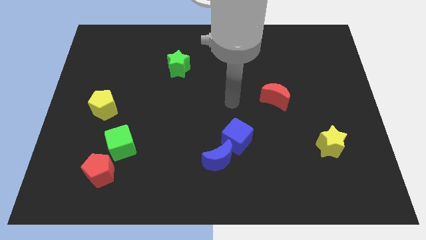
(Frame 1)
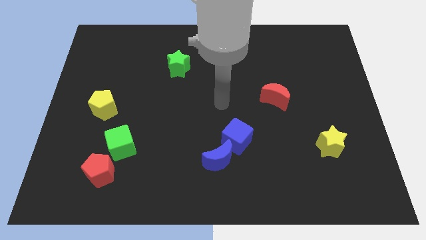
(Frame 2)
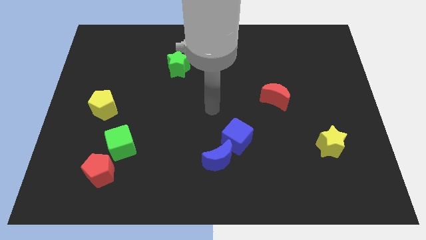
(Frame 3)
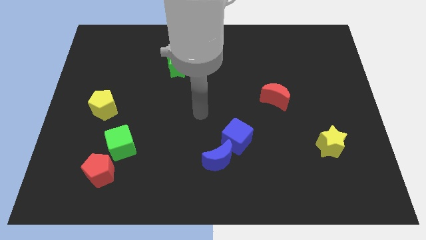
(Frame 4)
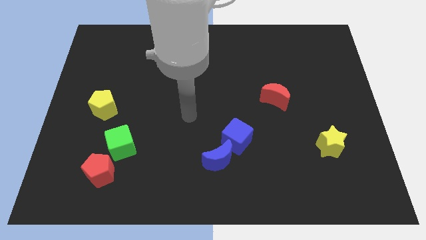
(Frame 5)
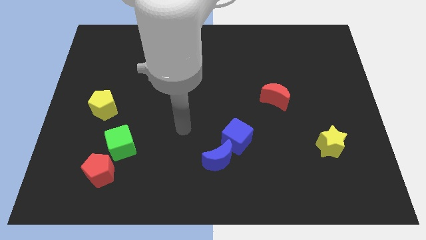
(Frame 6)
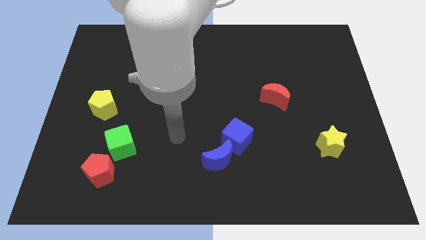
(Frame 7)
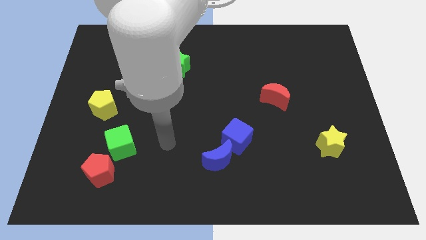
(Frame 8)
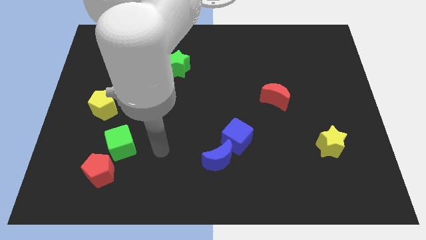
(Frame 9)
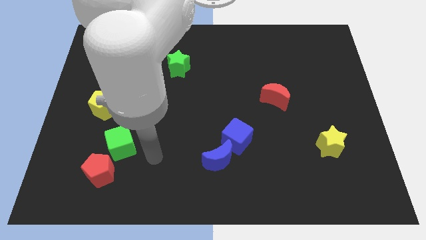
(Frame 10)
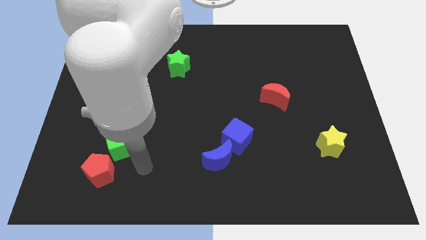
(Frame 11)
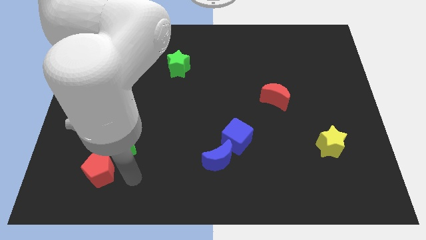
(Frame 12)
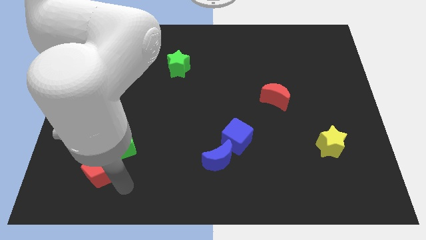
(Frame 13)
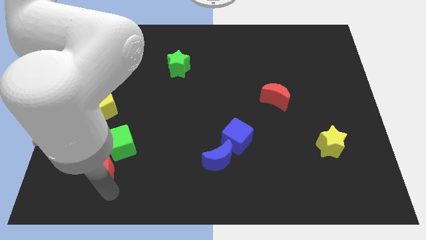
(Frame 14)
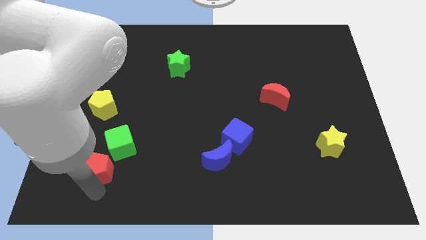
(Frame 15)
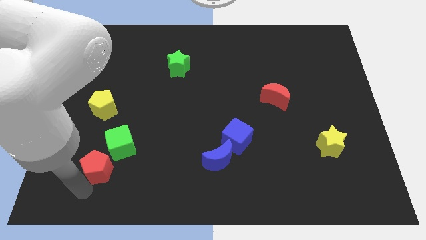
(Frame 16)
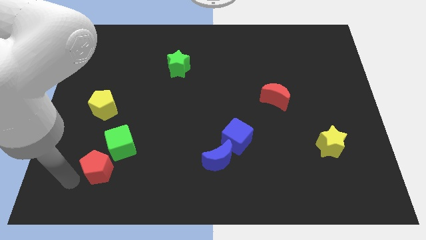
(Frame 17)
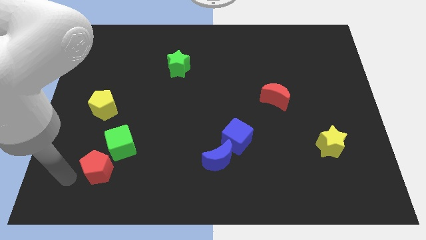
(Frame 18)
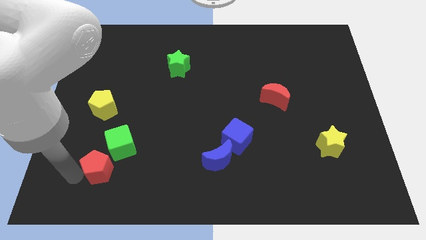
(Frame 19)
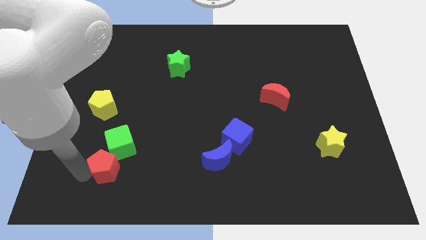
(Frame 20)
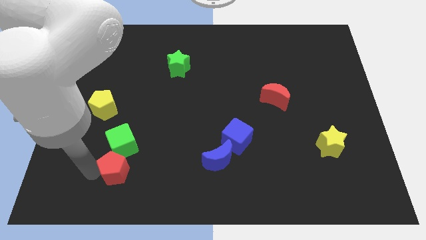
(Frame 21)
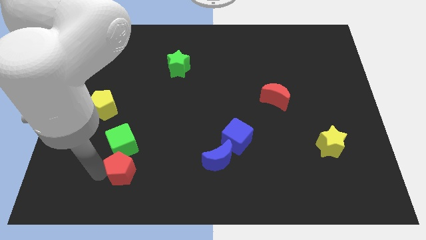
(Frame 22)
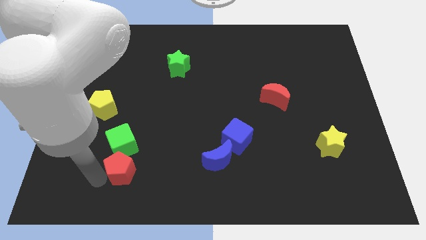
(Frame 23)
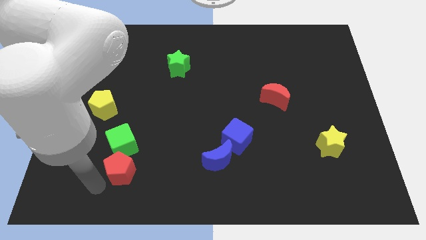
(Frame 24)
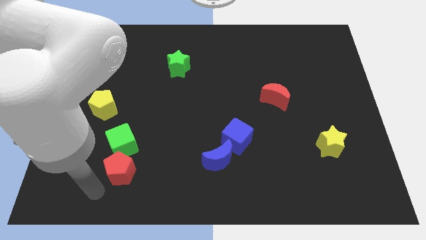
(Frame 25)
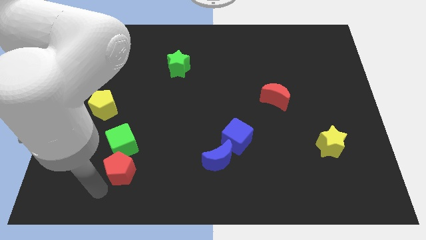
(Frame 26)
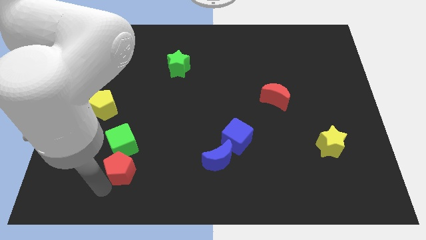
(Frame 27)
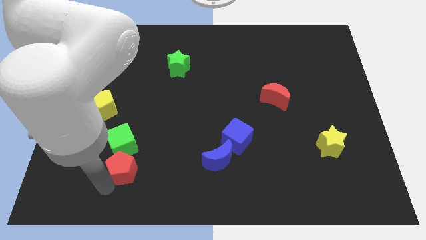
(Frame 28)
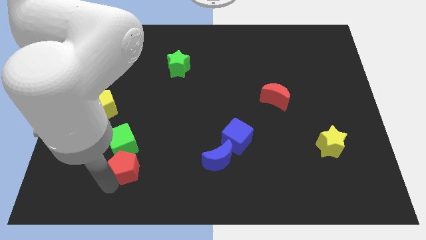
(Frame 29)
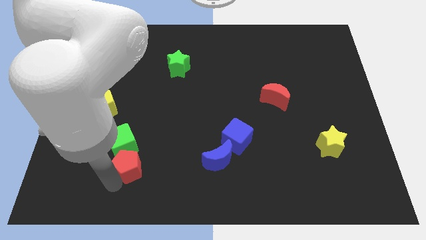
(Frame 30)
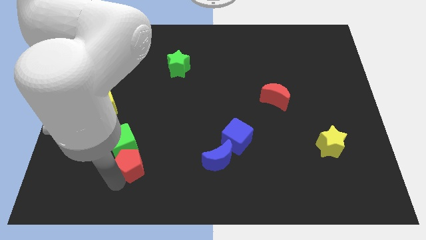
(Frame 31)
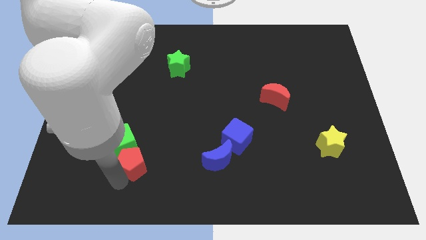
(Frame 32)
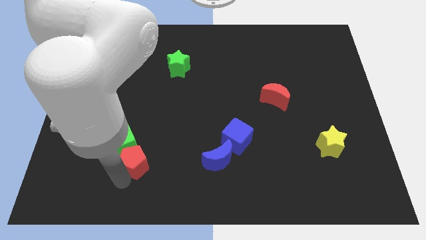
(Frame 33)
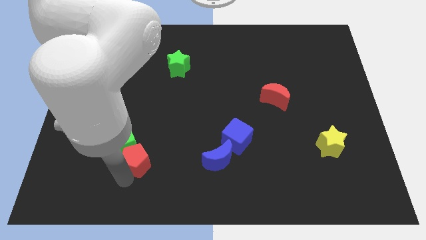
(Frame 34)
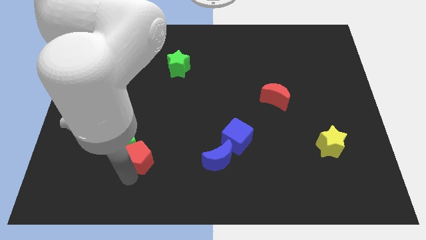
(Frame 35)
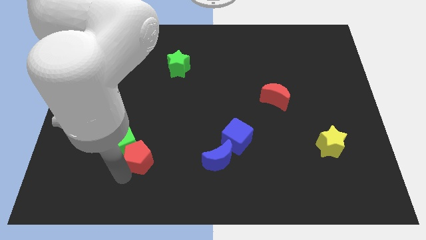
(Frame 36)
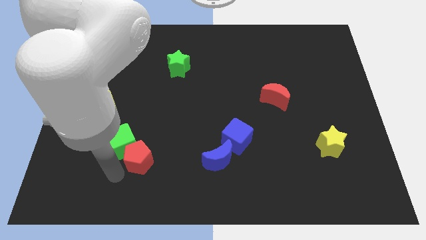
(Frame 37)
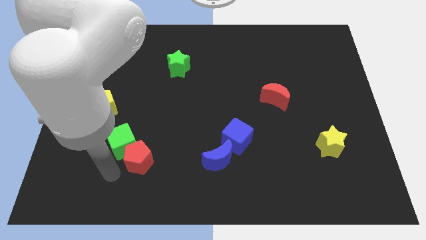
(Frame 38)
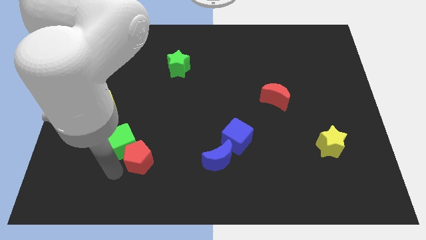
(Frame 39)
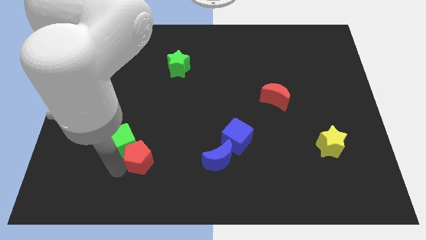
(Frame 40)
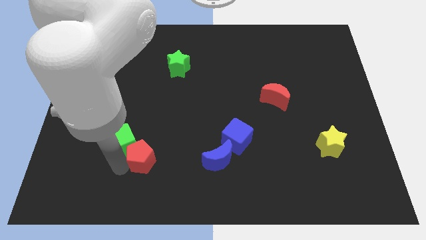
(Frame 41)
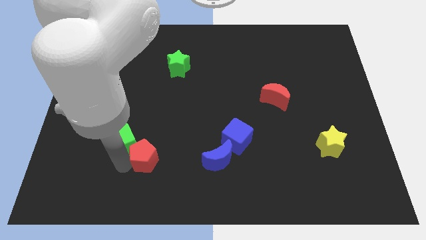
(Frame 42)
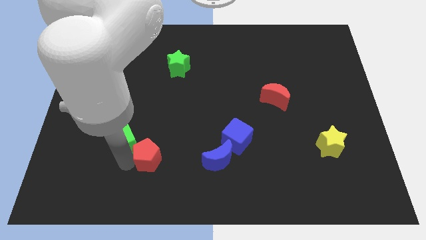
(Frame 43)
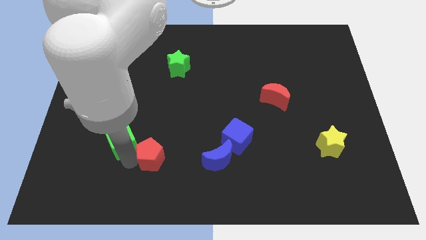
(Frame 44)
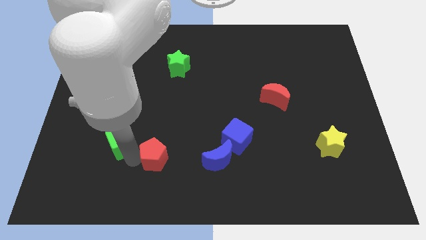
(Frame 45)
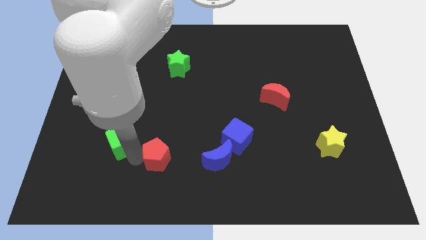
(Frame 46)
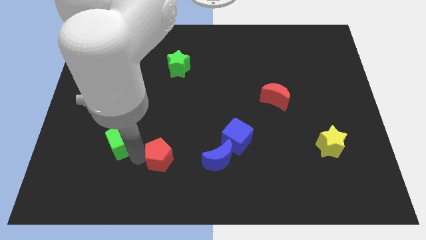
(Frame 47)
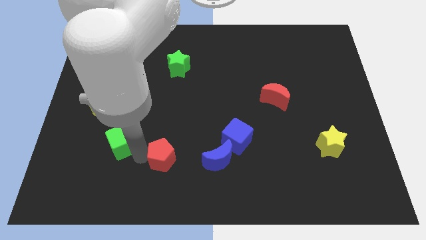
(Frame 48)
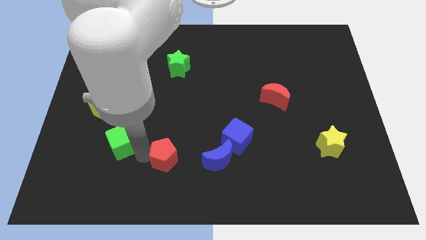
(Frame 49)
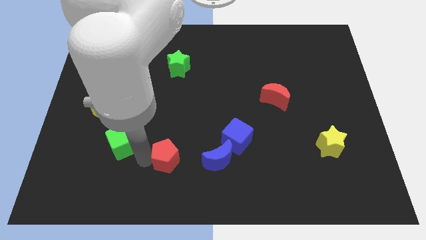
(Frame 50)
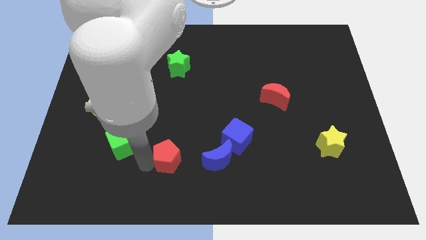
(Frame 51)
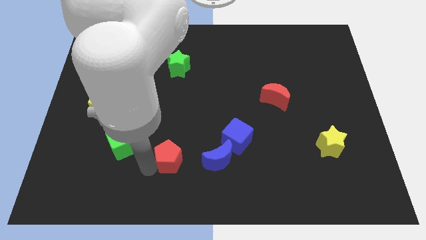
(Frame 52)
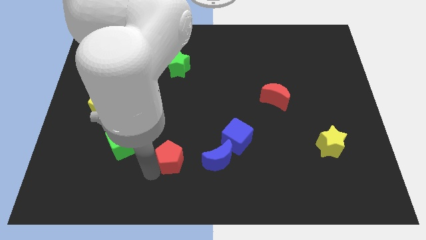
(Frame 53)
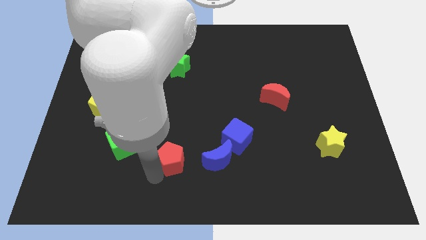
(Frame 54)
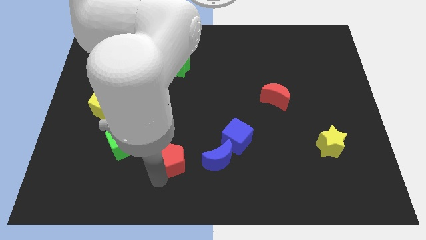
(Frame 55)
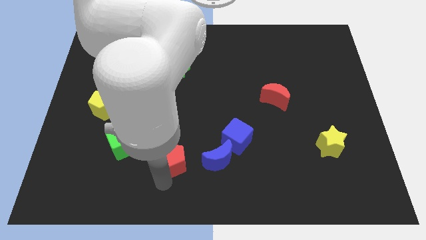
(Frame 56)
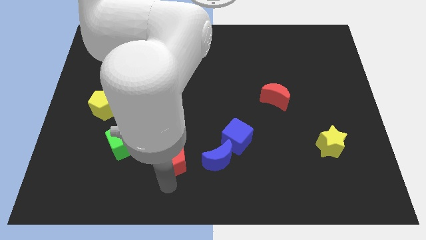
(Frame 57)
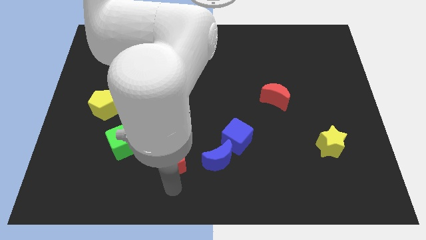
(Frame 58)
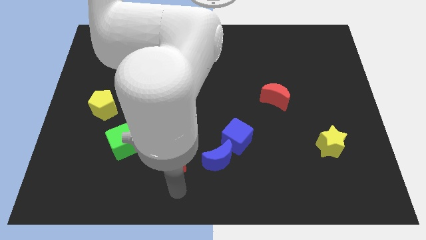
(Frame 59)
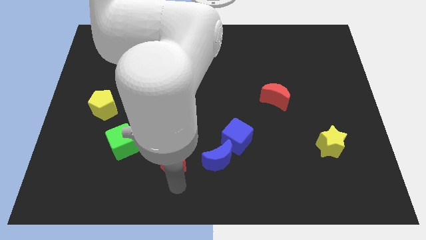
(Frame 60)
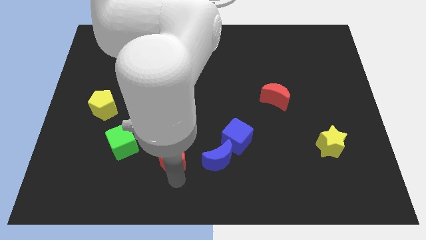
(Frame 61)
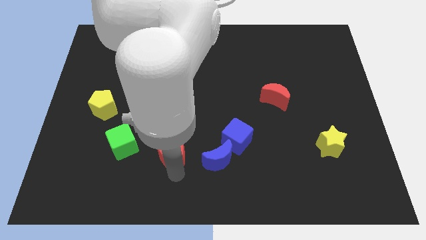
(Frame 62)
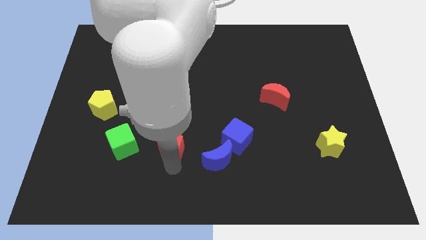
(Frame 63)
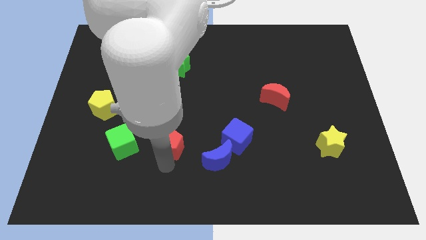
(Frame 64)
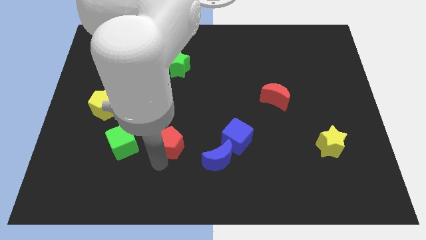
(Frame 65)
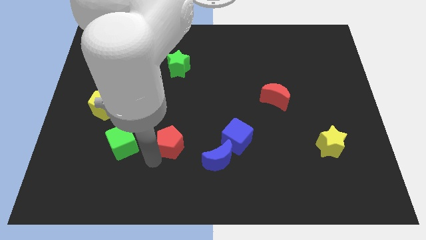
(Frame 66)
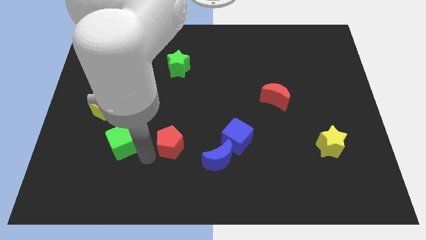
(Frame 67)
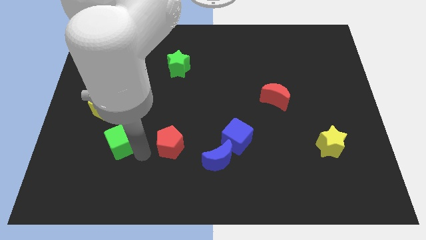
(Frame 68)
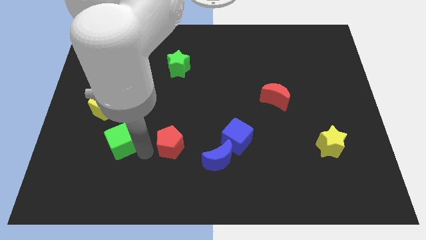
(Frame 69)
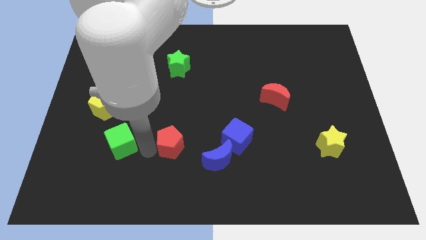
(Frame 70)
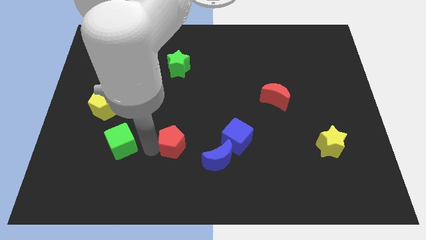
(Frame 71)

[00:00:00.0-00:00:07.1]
move the red pentagon diagonally up and to the left of the blue moon
